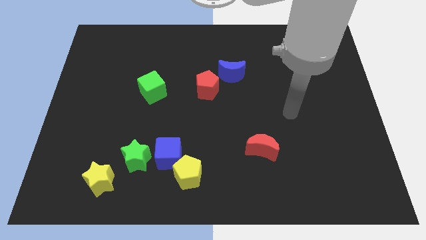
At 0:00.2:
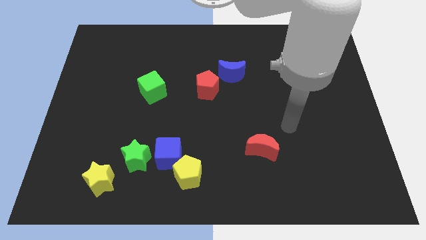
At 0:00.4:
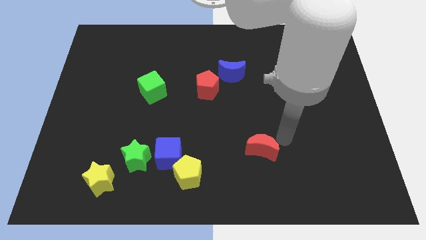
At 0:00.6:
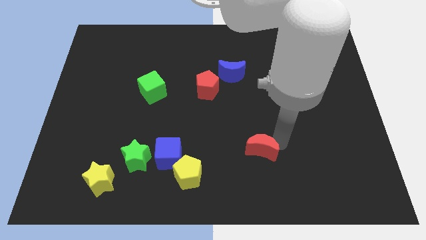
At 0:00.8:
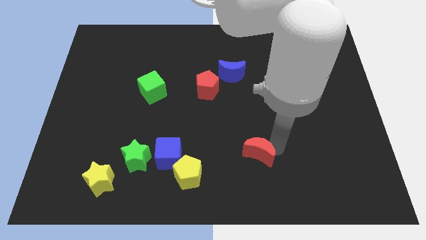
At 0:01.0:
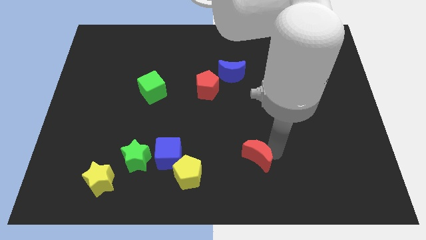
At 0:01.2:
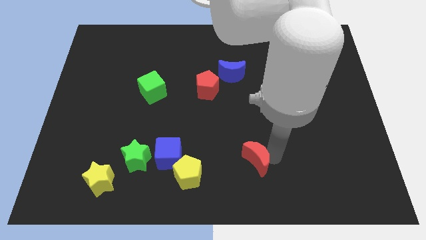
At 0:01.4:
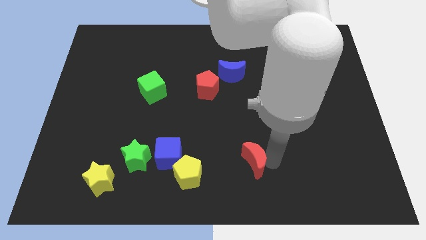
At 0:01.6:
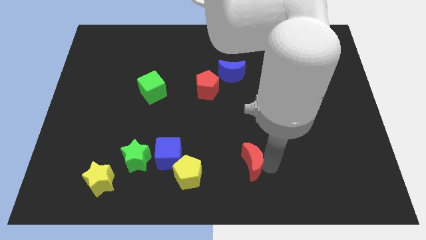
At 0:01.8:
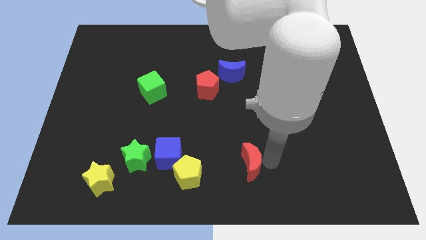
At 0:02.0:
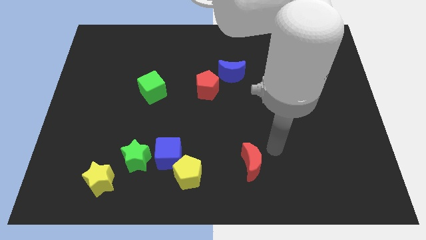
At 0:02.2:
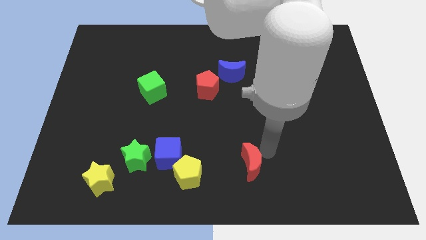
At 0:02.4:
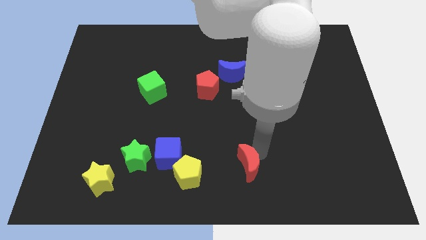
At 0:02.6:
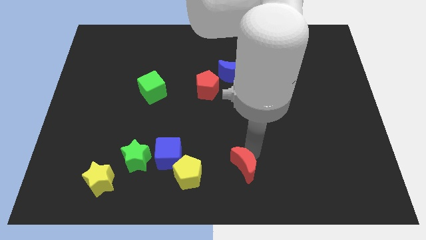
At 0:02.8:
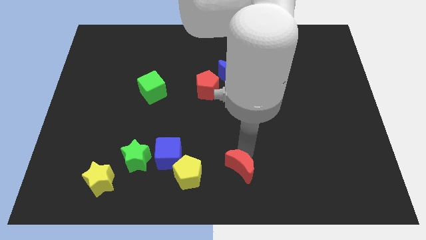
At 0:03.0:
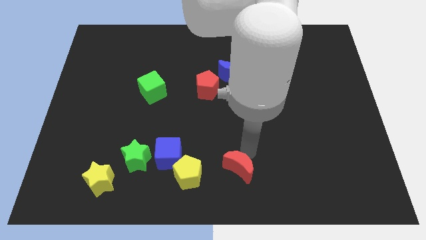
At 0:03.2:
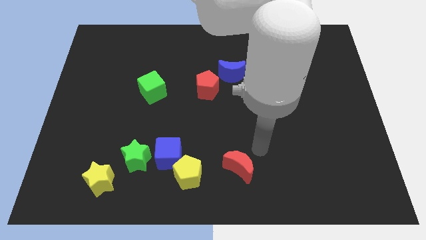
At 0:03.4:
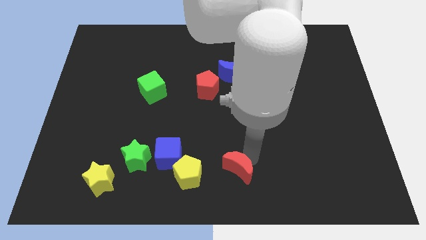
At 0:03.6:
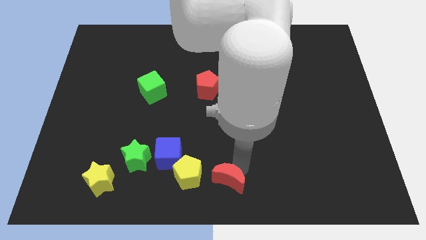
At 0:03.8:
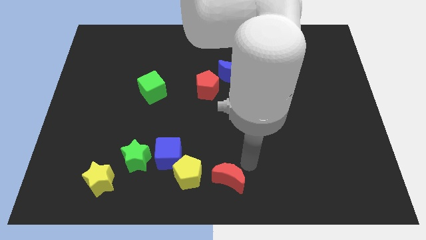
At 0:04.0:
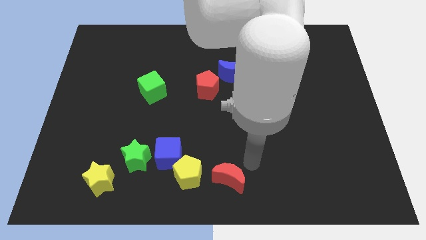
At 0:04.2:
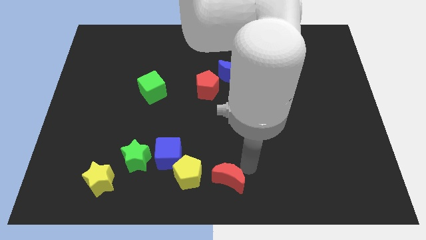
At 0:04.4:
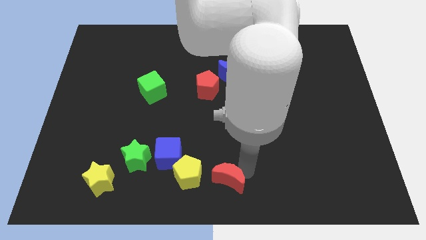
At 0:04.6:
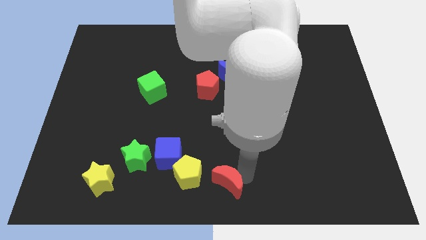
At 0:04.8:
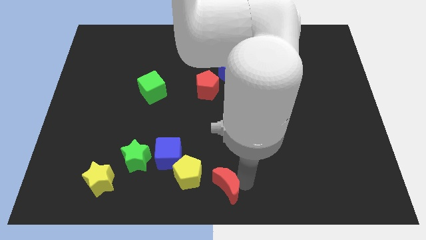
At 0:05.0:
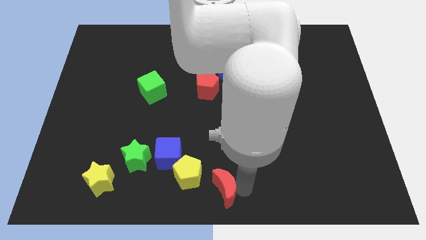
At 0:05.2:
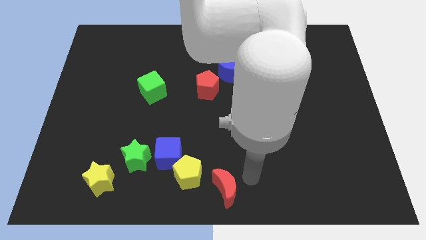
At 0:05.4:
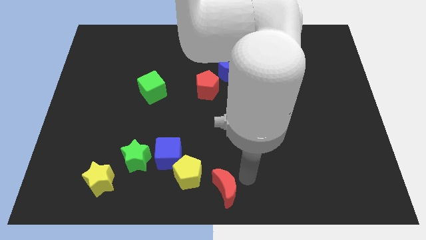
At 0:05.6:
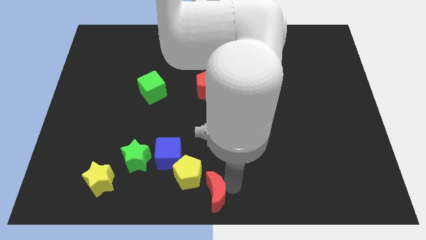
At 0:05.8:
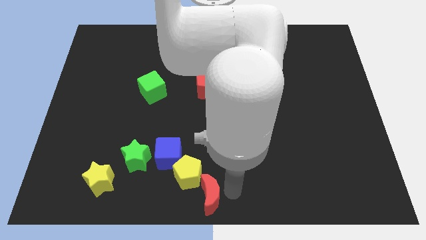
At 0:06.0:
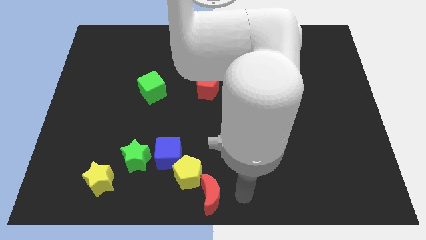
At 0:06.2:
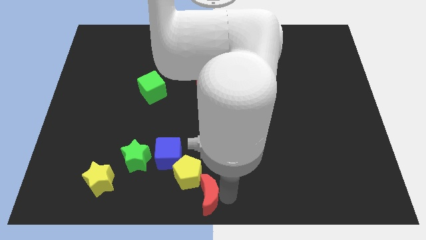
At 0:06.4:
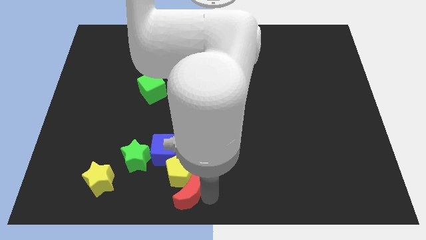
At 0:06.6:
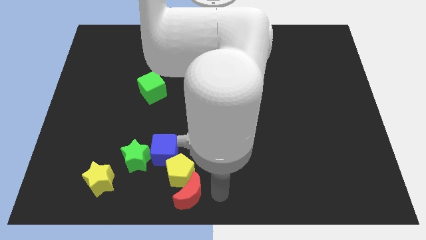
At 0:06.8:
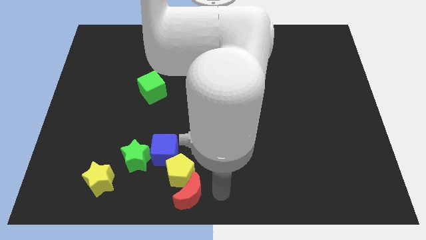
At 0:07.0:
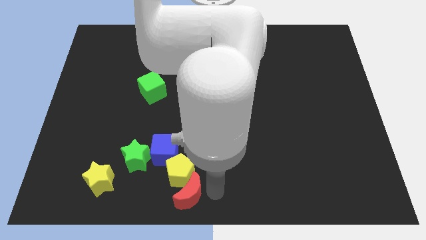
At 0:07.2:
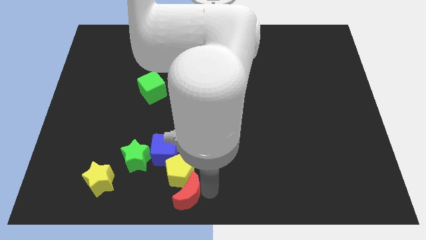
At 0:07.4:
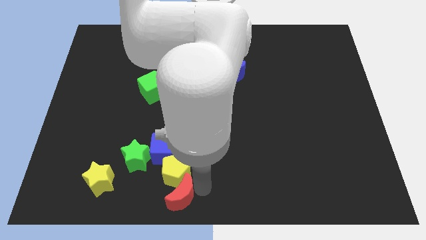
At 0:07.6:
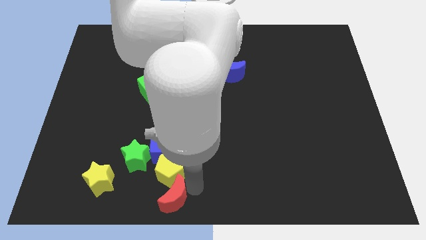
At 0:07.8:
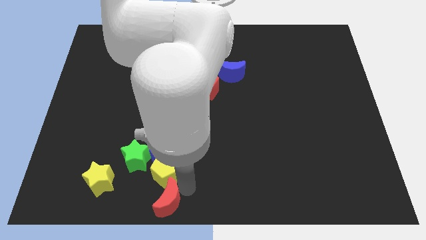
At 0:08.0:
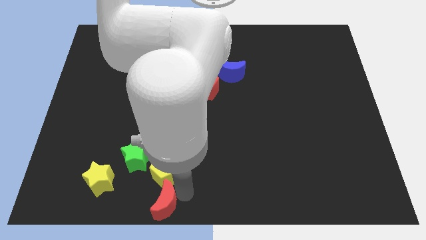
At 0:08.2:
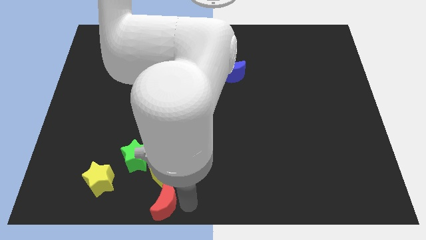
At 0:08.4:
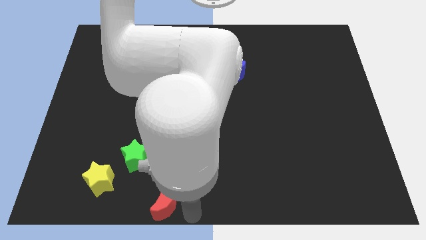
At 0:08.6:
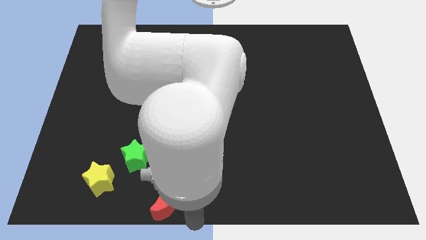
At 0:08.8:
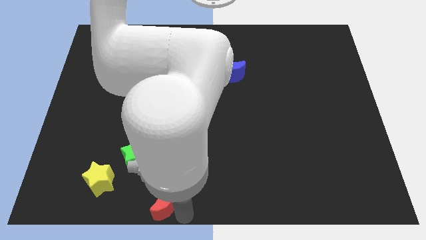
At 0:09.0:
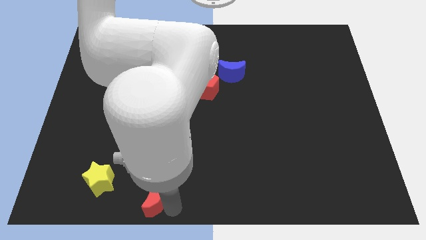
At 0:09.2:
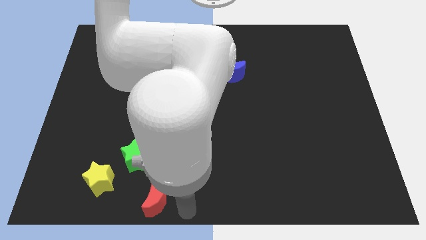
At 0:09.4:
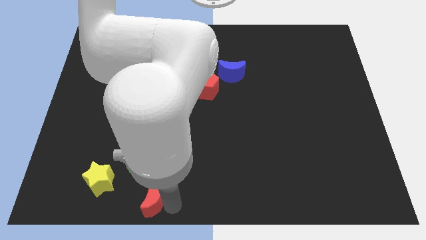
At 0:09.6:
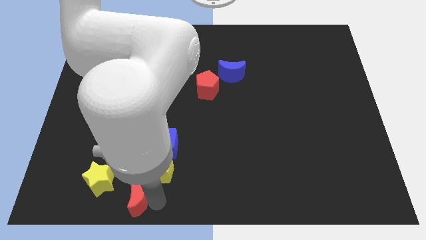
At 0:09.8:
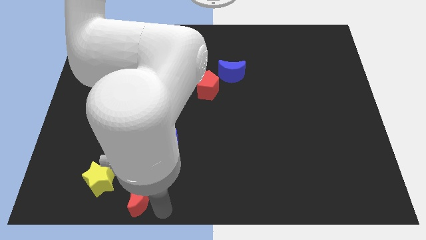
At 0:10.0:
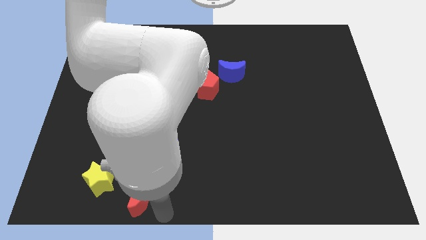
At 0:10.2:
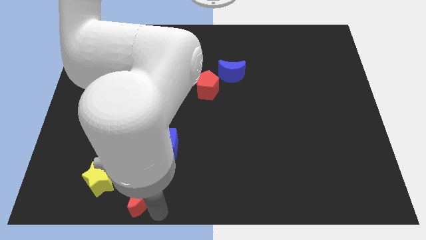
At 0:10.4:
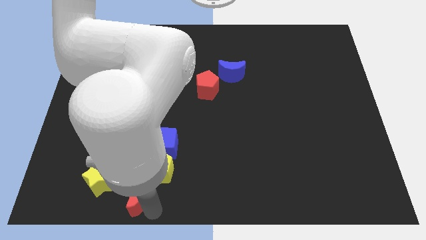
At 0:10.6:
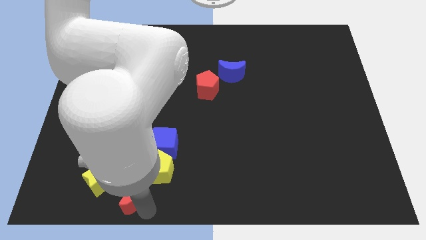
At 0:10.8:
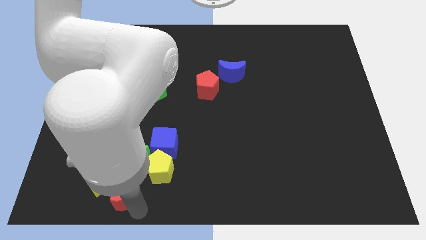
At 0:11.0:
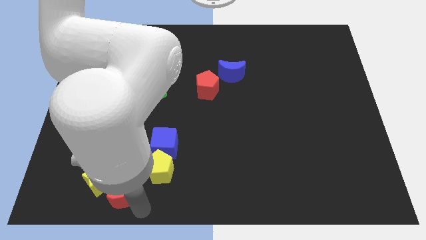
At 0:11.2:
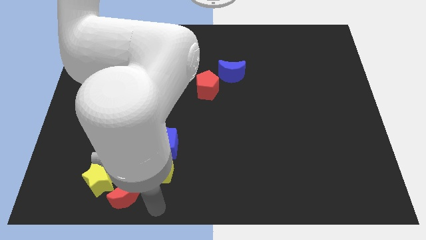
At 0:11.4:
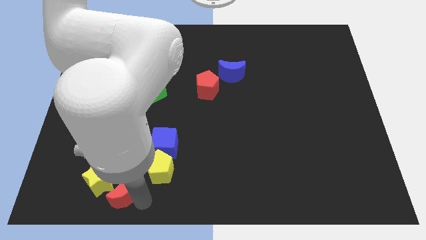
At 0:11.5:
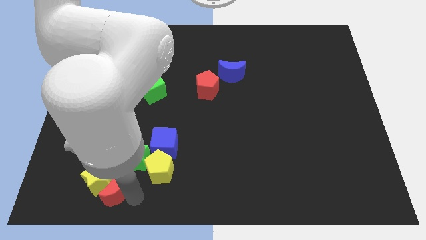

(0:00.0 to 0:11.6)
push the red moon next to the yellow star

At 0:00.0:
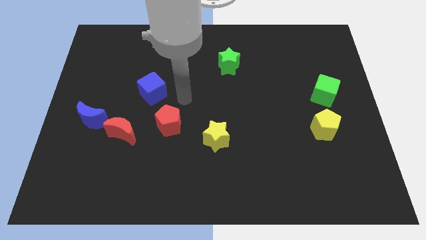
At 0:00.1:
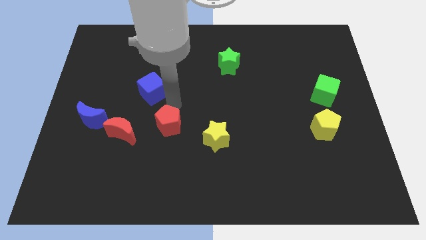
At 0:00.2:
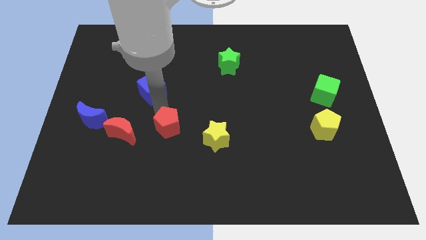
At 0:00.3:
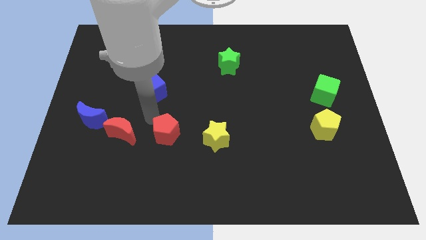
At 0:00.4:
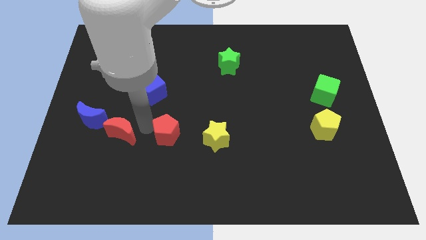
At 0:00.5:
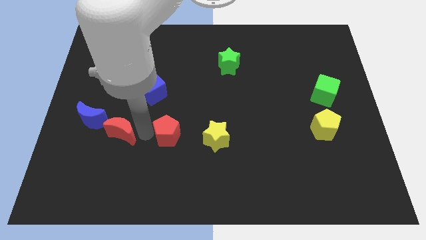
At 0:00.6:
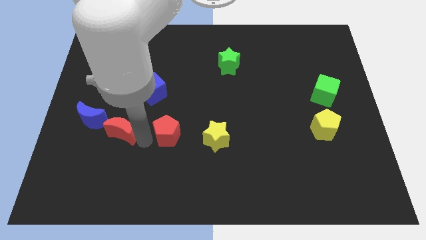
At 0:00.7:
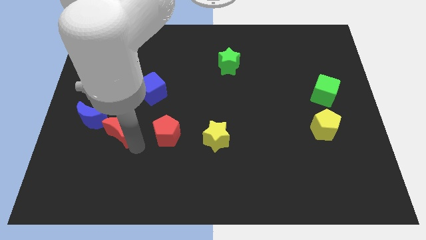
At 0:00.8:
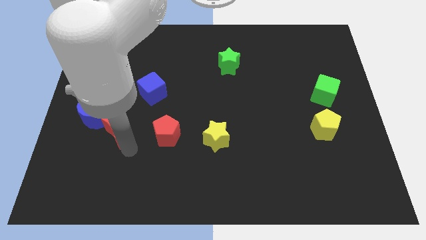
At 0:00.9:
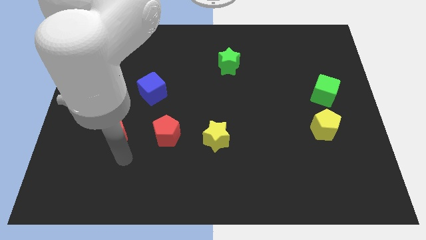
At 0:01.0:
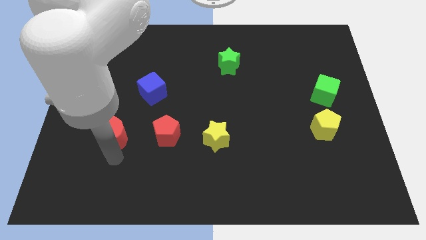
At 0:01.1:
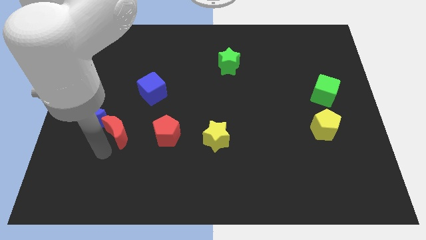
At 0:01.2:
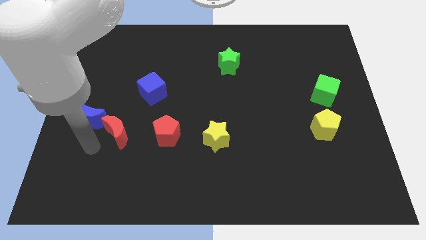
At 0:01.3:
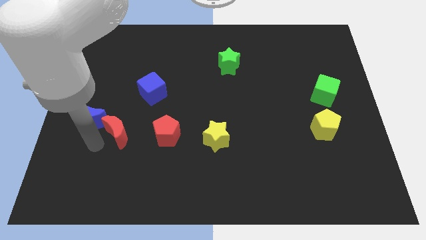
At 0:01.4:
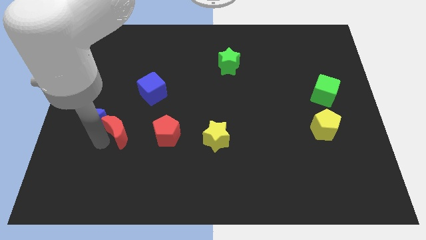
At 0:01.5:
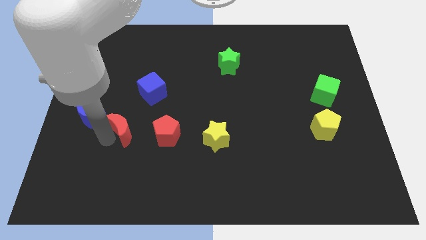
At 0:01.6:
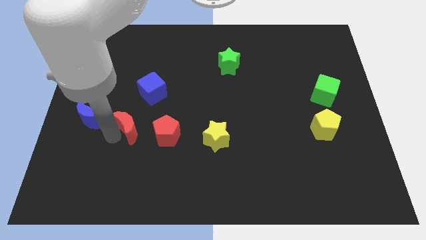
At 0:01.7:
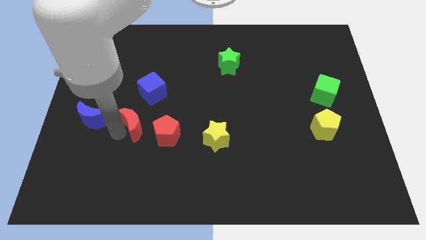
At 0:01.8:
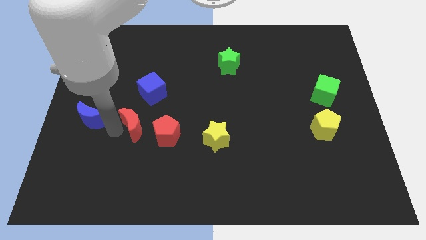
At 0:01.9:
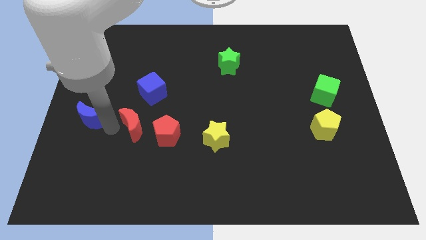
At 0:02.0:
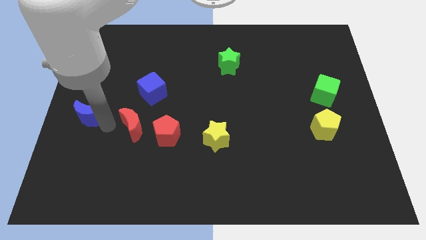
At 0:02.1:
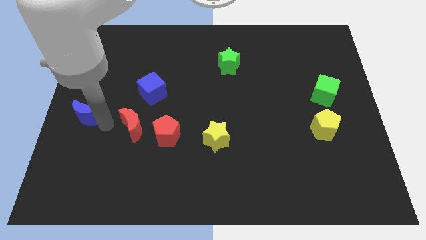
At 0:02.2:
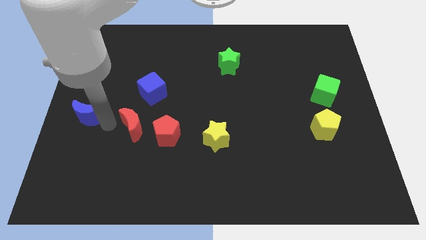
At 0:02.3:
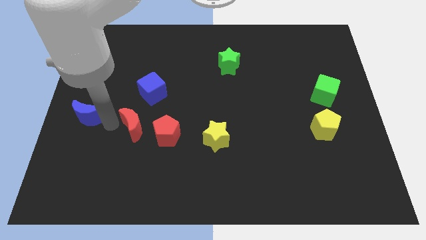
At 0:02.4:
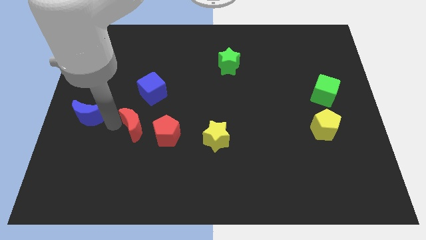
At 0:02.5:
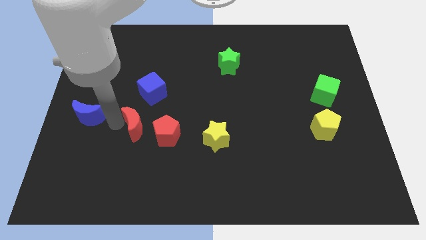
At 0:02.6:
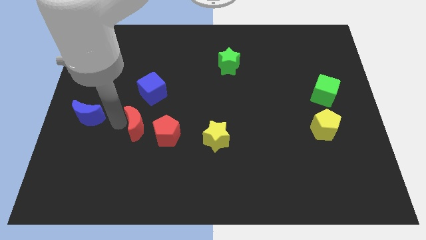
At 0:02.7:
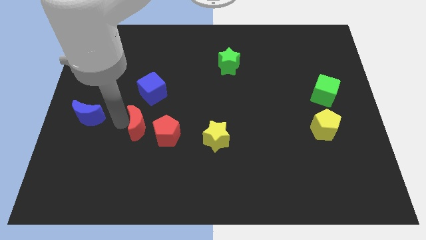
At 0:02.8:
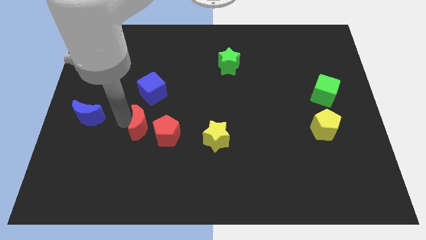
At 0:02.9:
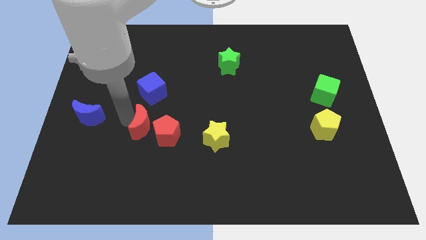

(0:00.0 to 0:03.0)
move the red moon close to the red pentagon
